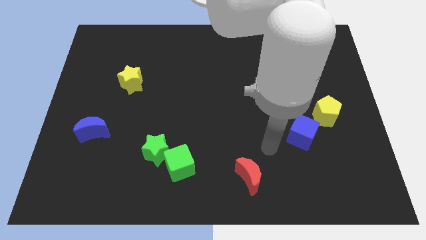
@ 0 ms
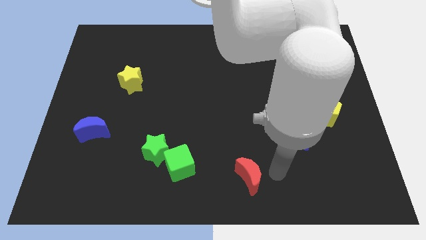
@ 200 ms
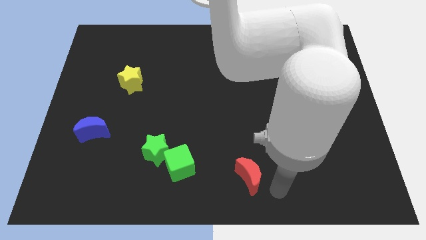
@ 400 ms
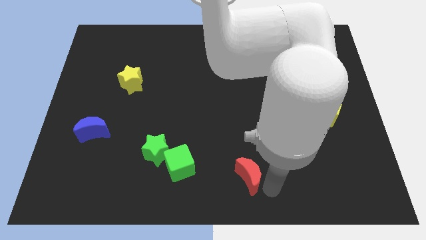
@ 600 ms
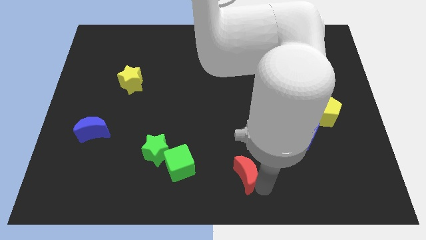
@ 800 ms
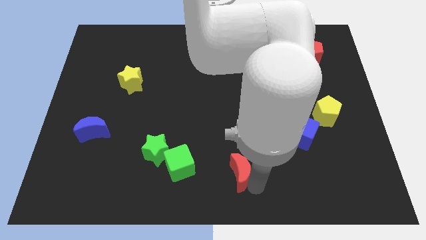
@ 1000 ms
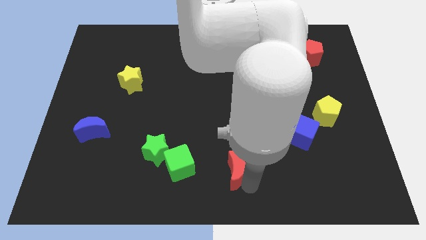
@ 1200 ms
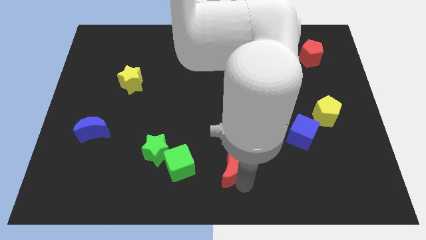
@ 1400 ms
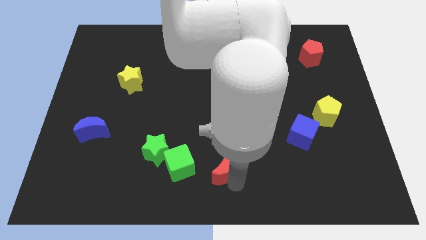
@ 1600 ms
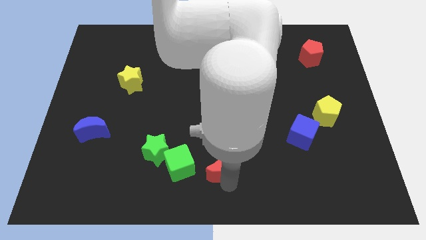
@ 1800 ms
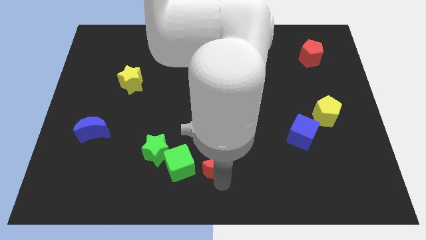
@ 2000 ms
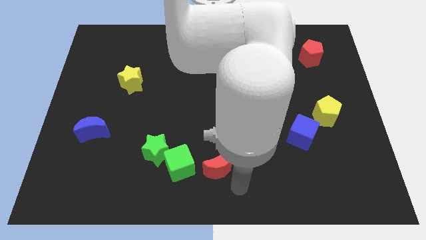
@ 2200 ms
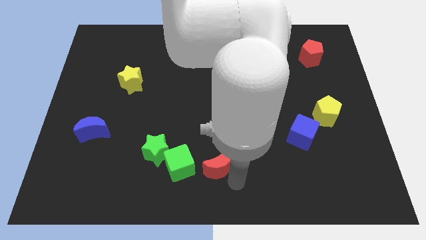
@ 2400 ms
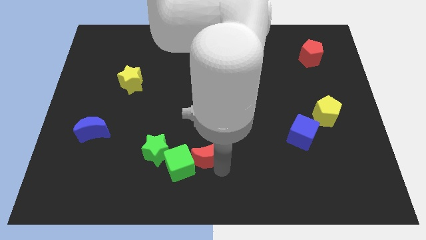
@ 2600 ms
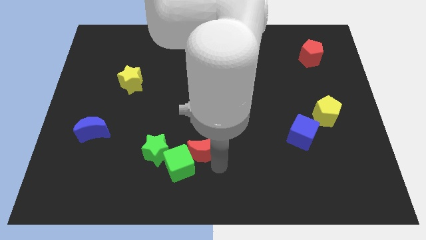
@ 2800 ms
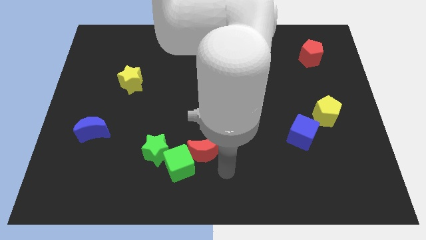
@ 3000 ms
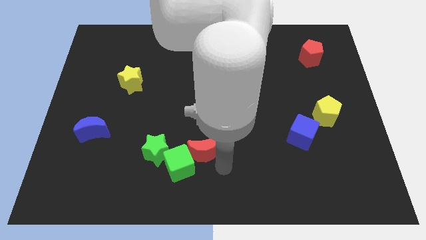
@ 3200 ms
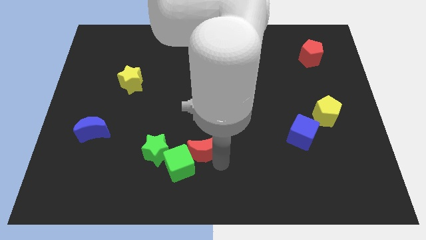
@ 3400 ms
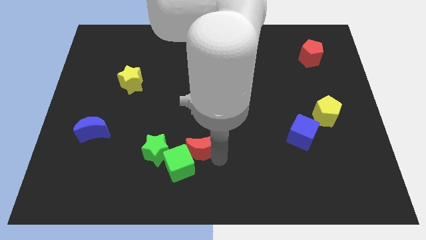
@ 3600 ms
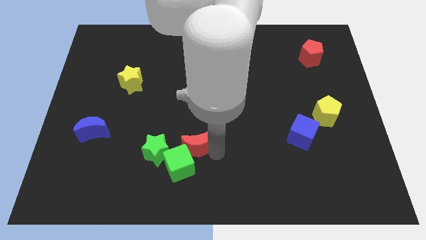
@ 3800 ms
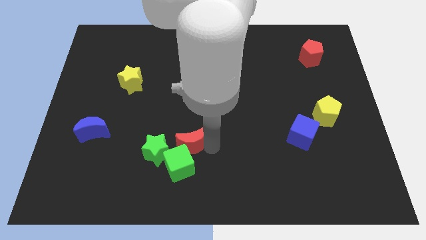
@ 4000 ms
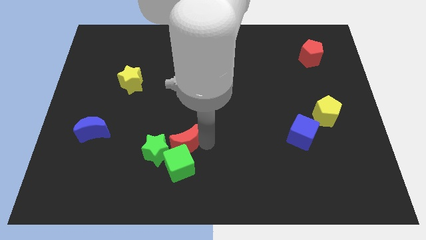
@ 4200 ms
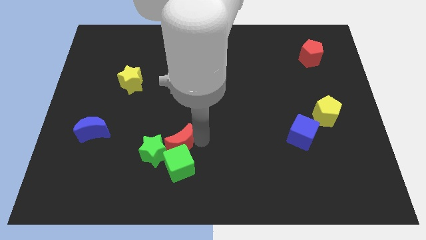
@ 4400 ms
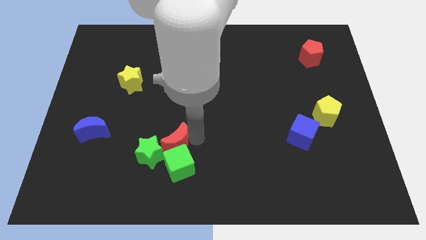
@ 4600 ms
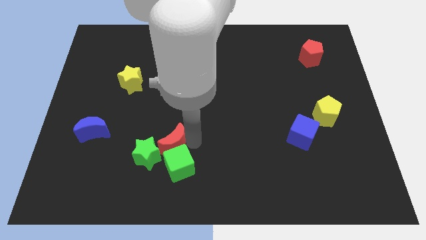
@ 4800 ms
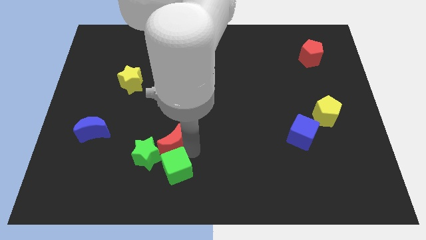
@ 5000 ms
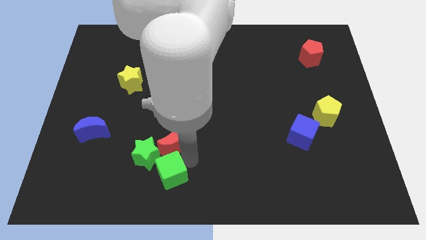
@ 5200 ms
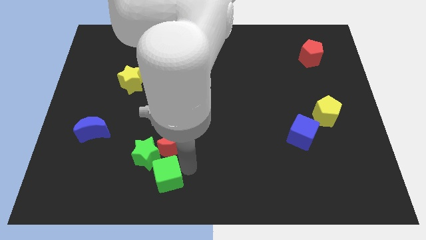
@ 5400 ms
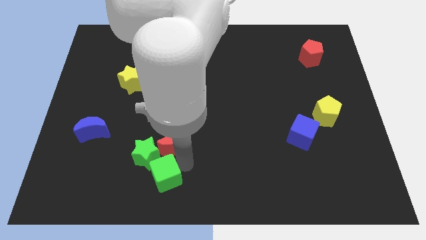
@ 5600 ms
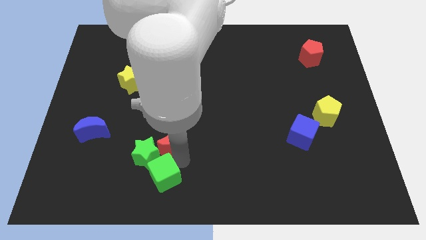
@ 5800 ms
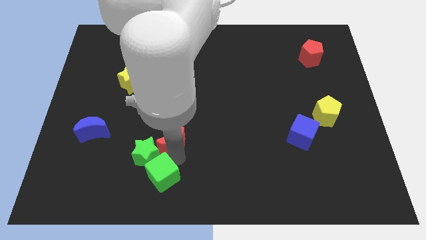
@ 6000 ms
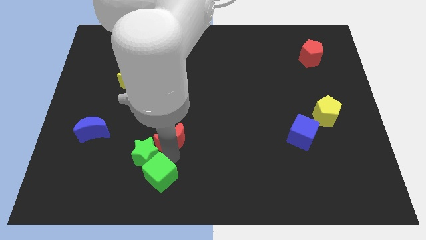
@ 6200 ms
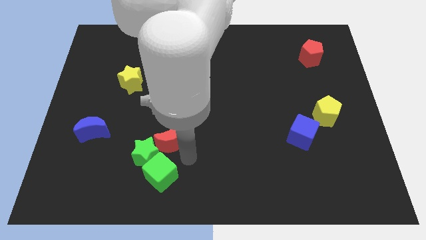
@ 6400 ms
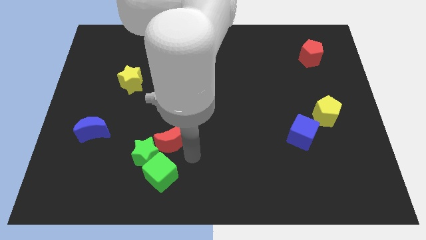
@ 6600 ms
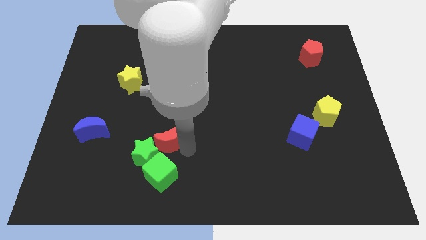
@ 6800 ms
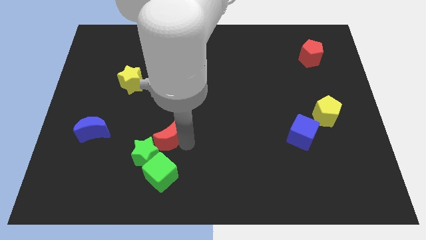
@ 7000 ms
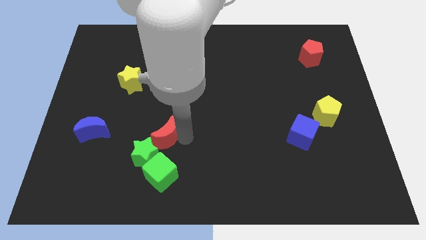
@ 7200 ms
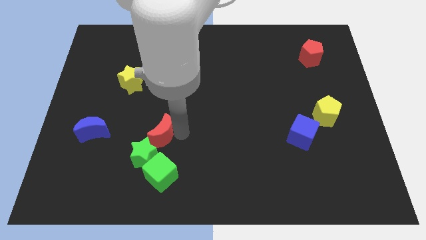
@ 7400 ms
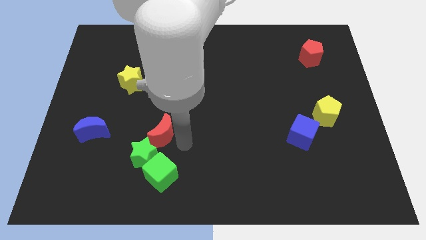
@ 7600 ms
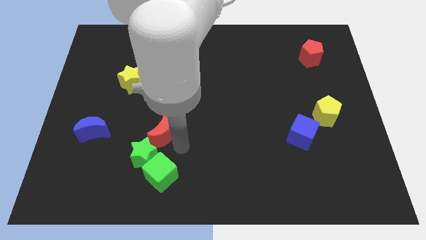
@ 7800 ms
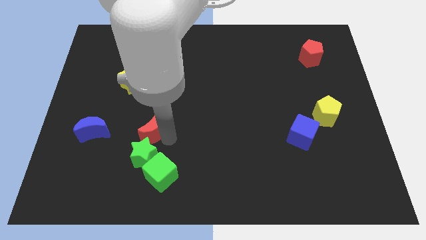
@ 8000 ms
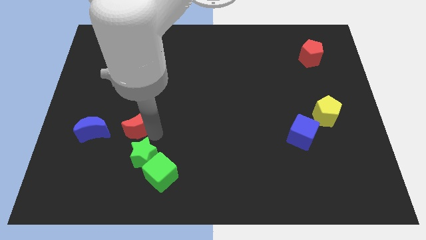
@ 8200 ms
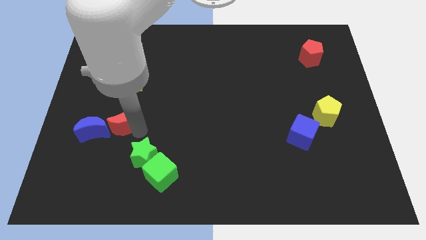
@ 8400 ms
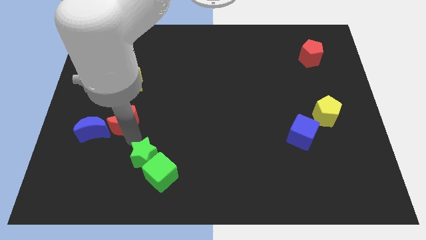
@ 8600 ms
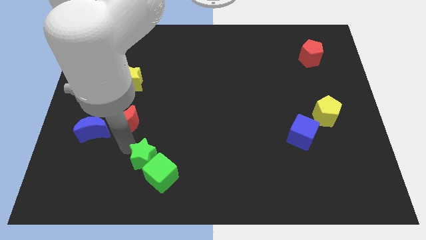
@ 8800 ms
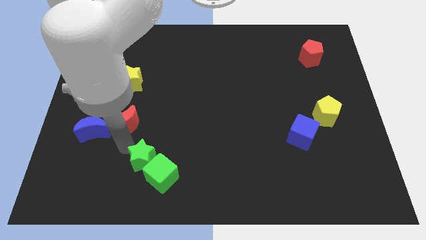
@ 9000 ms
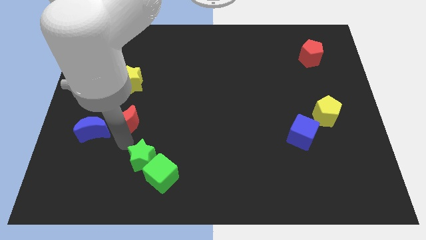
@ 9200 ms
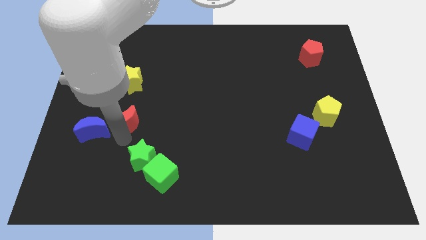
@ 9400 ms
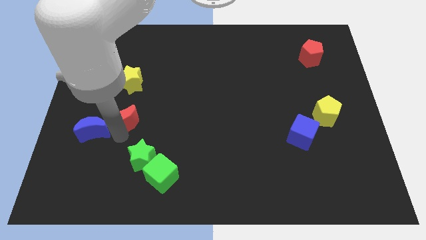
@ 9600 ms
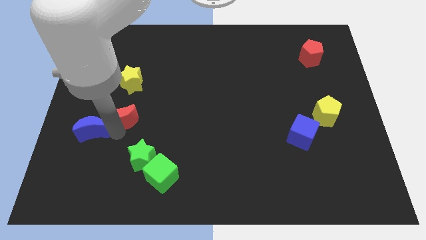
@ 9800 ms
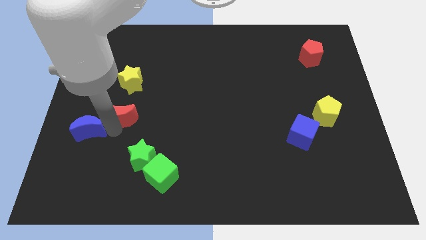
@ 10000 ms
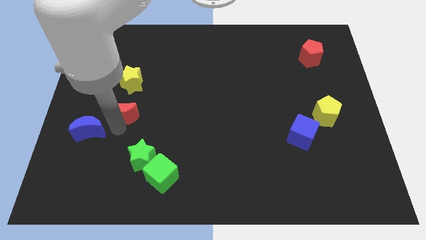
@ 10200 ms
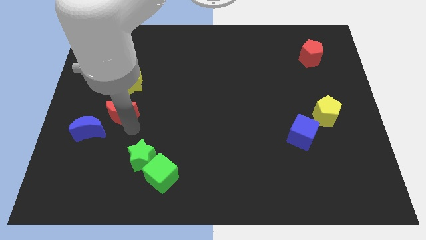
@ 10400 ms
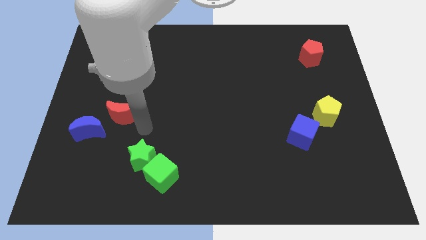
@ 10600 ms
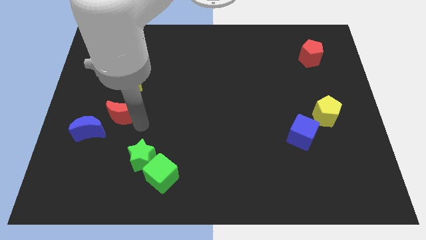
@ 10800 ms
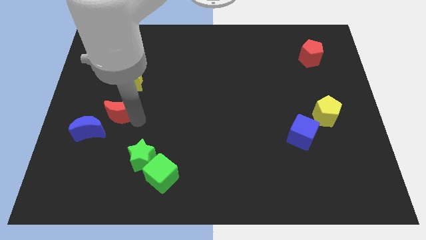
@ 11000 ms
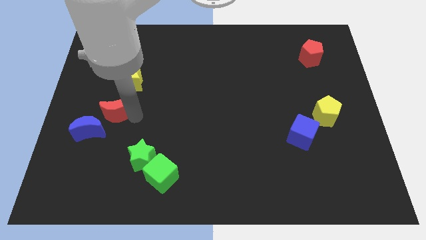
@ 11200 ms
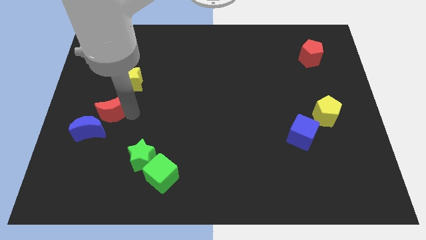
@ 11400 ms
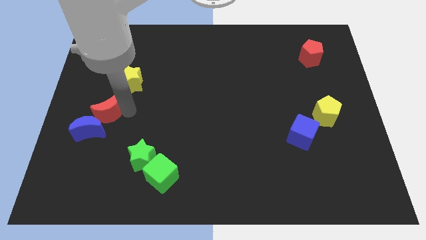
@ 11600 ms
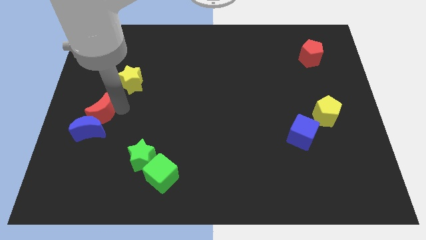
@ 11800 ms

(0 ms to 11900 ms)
put the red moon to the left side of the board
